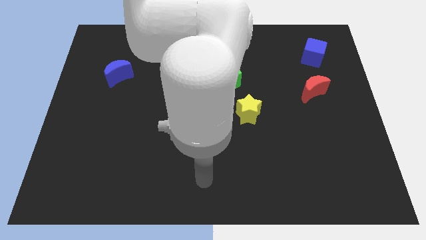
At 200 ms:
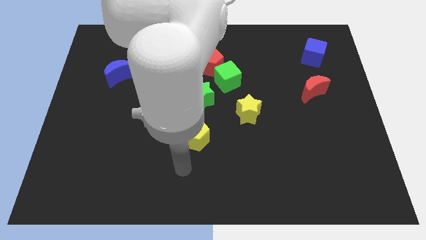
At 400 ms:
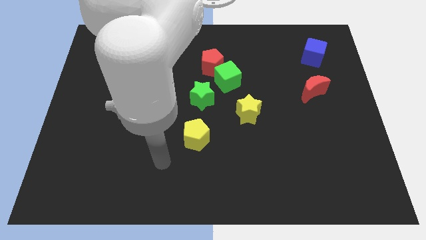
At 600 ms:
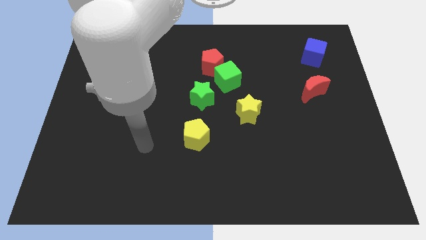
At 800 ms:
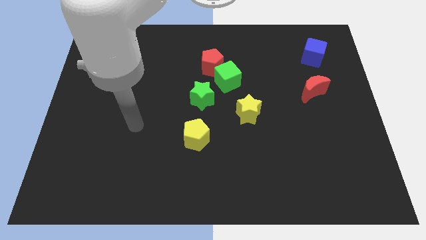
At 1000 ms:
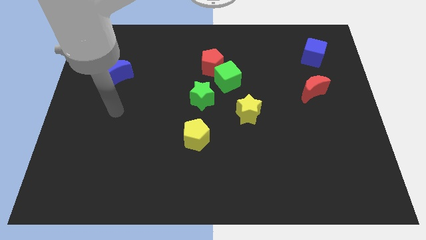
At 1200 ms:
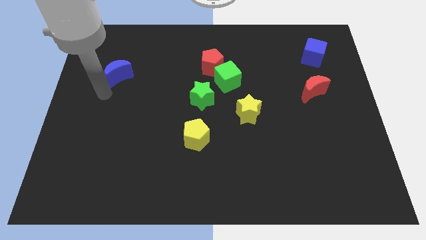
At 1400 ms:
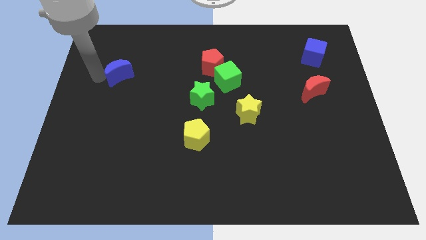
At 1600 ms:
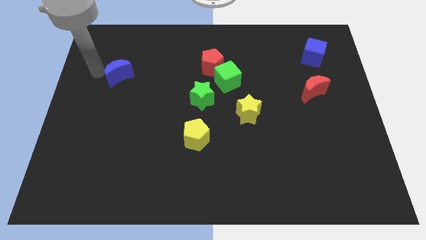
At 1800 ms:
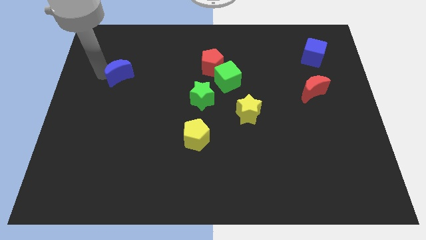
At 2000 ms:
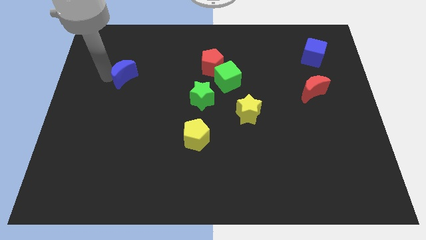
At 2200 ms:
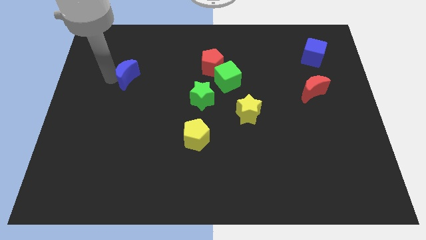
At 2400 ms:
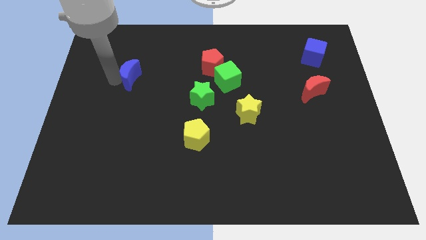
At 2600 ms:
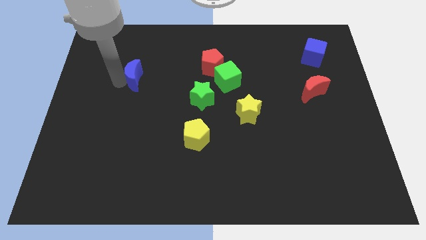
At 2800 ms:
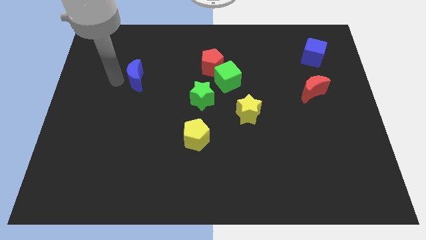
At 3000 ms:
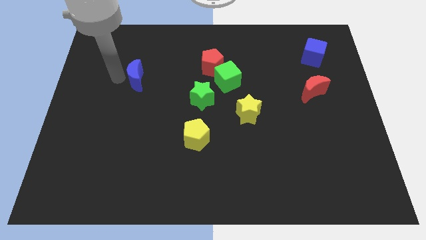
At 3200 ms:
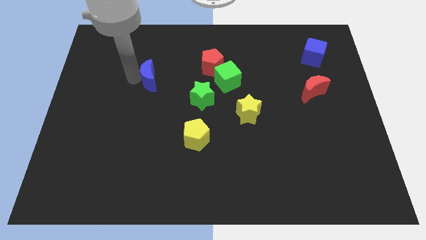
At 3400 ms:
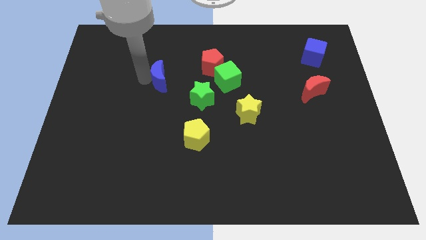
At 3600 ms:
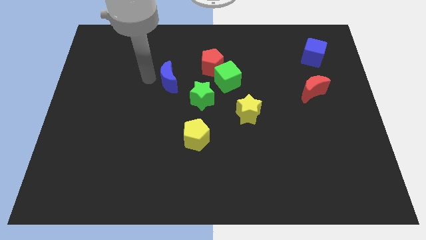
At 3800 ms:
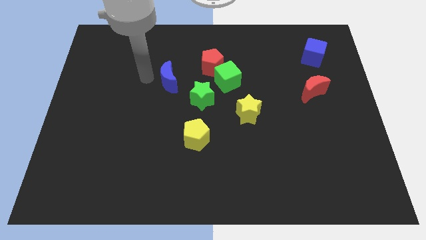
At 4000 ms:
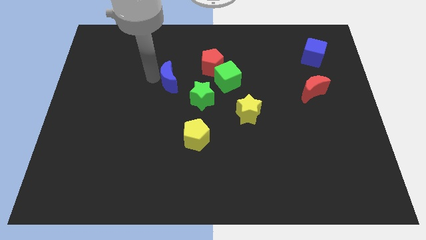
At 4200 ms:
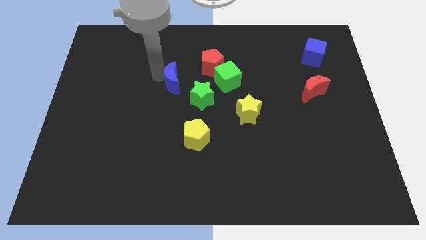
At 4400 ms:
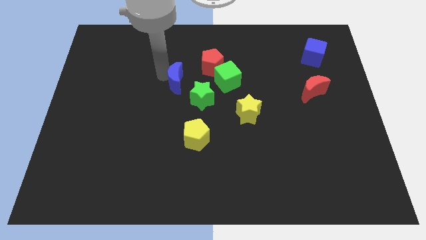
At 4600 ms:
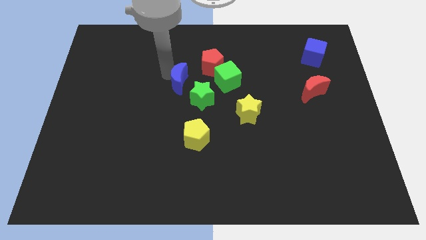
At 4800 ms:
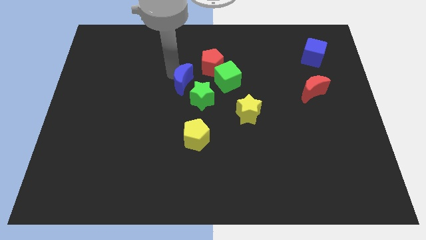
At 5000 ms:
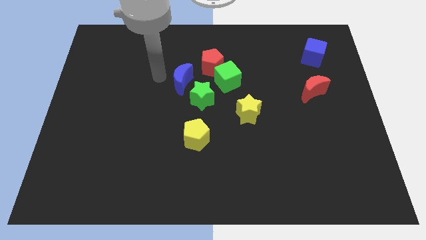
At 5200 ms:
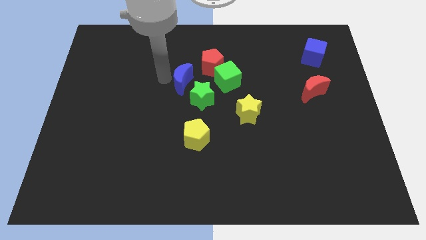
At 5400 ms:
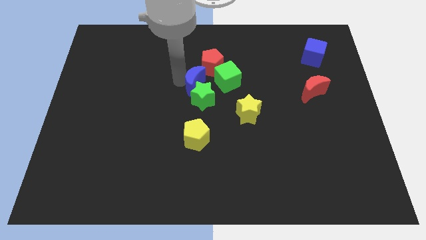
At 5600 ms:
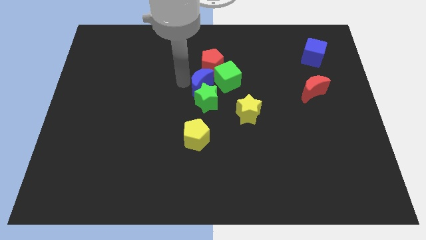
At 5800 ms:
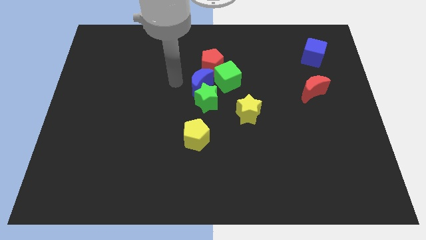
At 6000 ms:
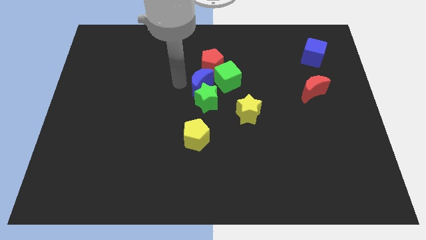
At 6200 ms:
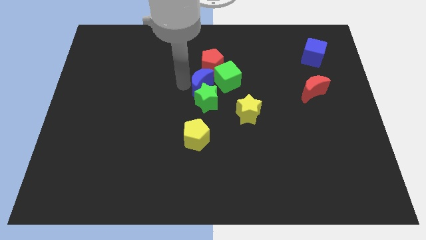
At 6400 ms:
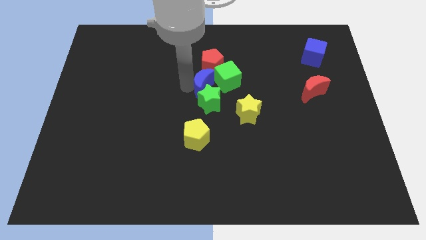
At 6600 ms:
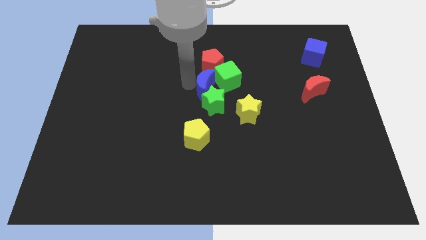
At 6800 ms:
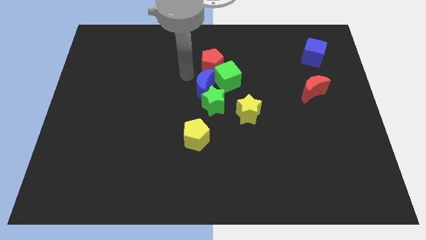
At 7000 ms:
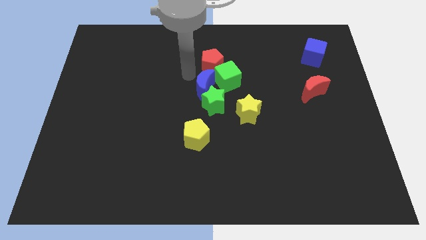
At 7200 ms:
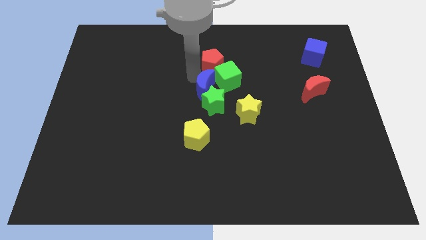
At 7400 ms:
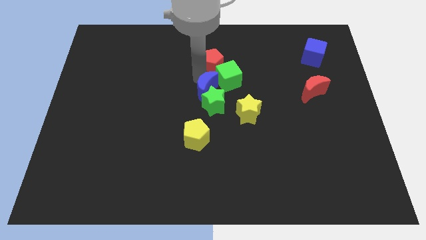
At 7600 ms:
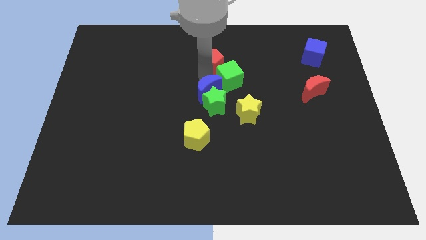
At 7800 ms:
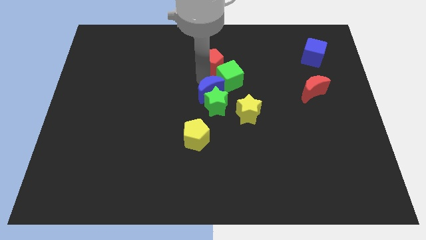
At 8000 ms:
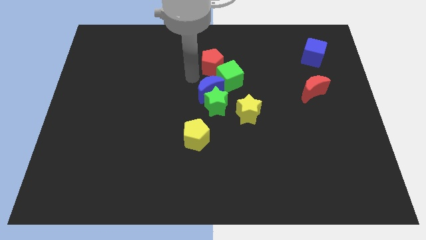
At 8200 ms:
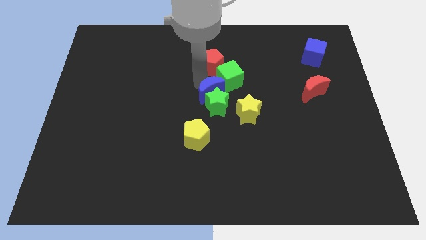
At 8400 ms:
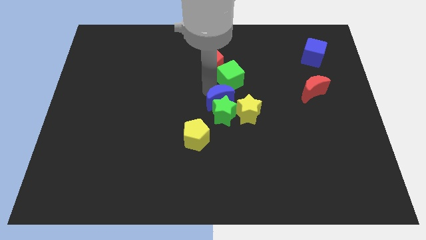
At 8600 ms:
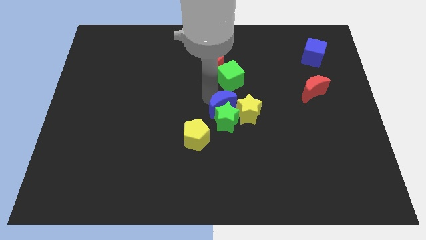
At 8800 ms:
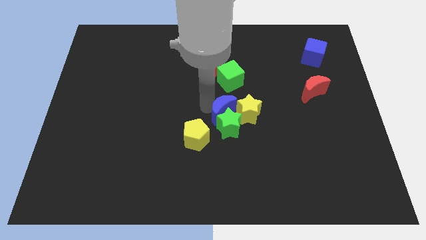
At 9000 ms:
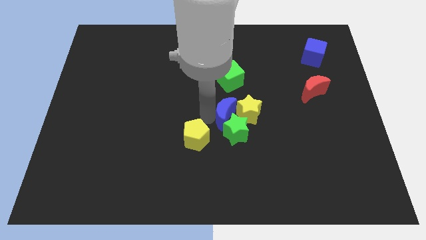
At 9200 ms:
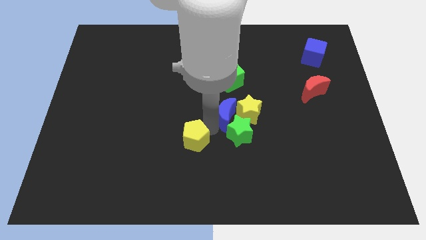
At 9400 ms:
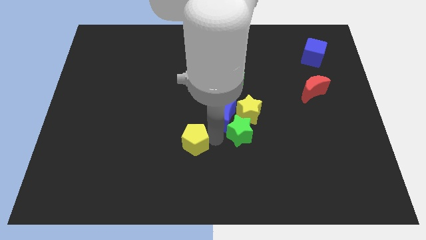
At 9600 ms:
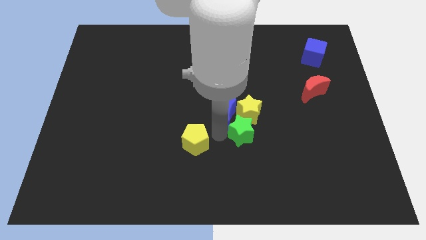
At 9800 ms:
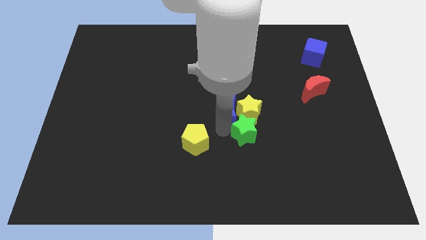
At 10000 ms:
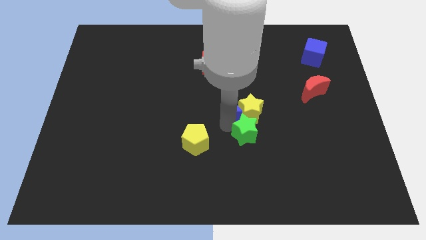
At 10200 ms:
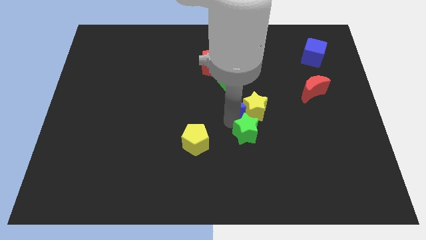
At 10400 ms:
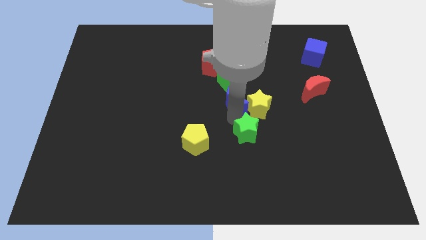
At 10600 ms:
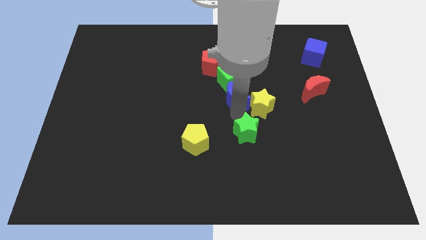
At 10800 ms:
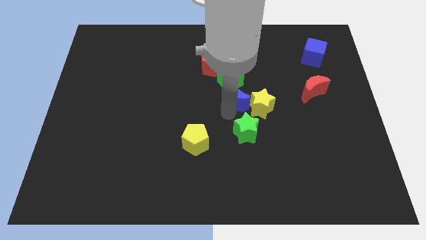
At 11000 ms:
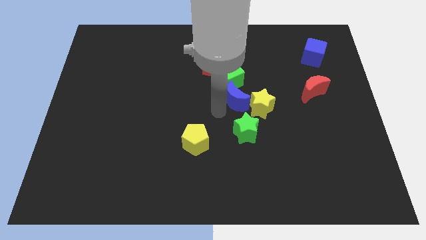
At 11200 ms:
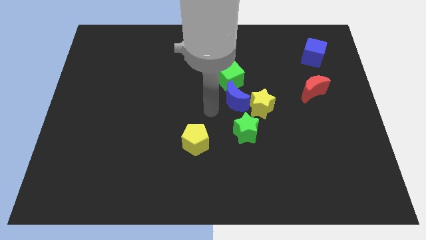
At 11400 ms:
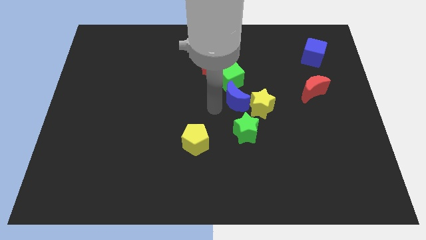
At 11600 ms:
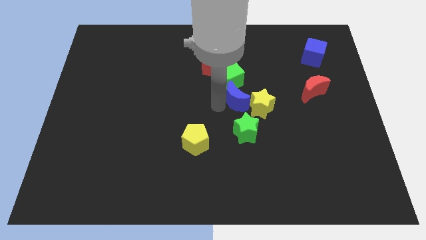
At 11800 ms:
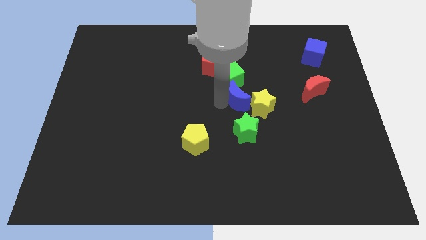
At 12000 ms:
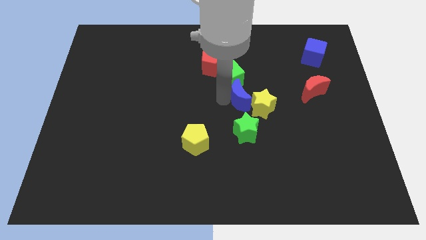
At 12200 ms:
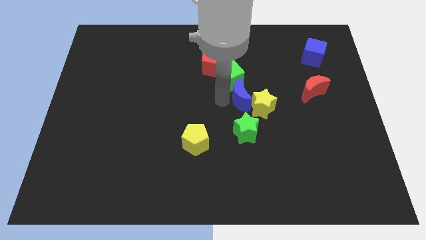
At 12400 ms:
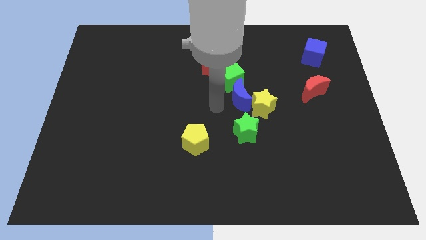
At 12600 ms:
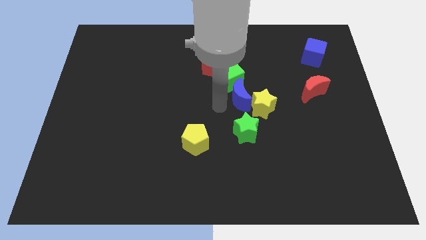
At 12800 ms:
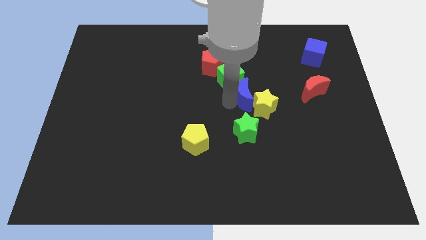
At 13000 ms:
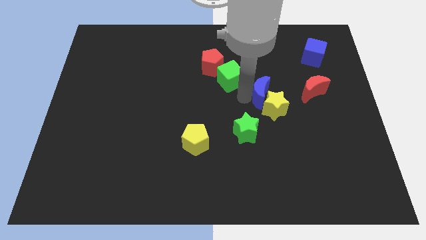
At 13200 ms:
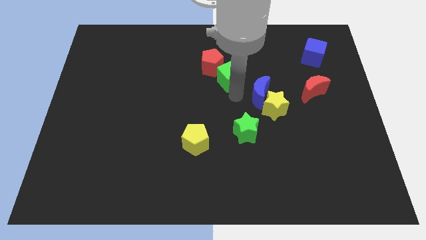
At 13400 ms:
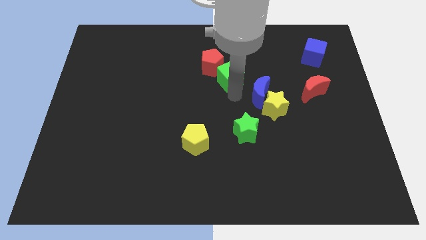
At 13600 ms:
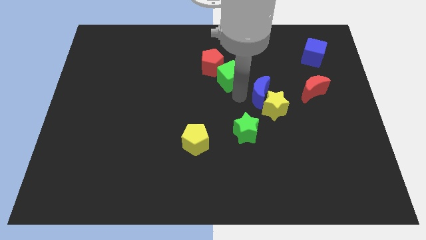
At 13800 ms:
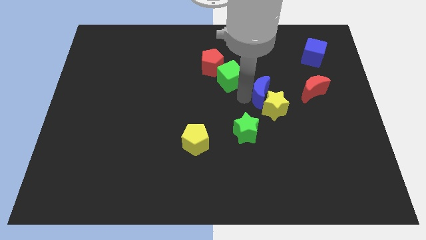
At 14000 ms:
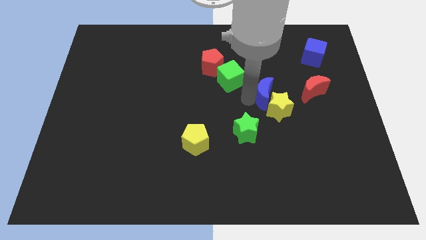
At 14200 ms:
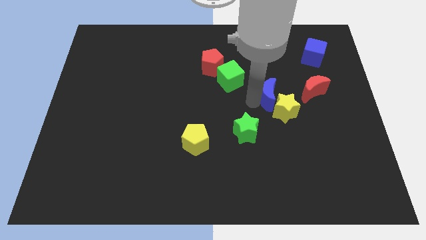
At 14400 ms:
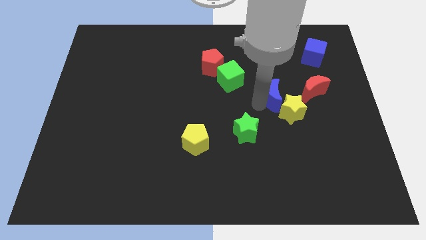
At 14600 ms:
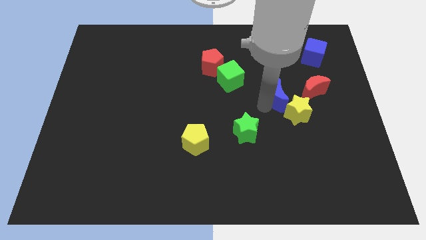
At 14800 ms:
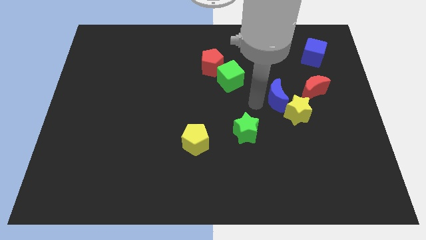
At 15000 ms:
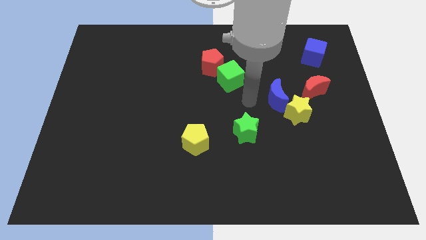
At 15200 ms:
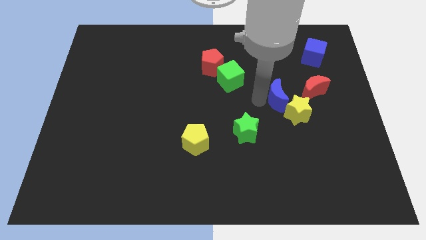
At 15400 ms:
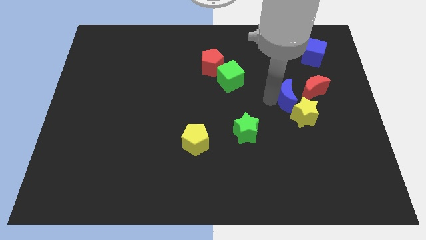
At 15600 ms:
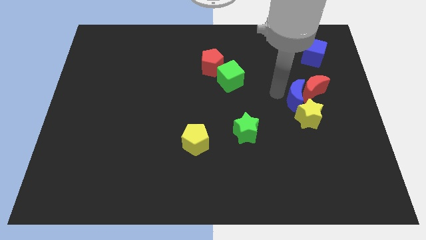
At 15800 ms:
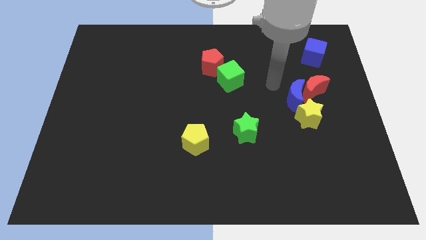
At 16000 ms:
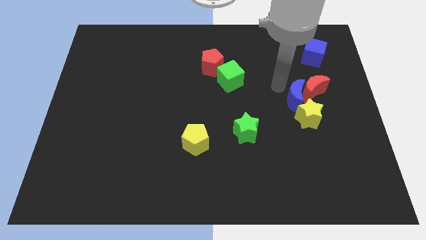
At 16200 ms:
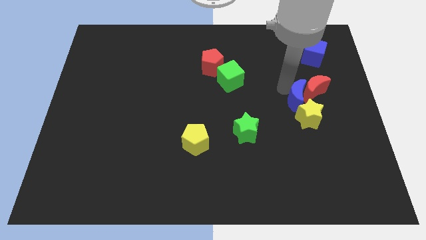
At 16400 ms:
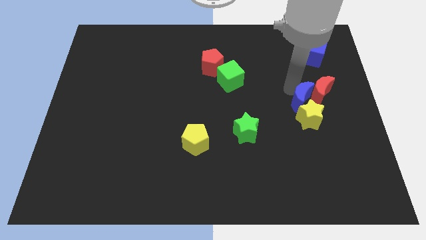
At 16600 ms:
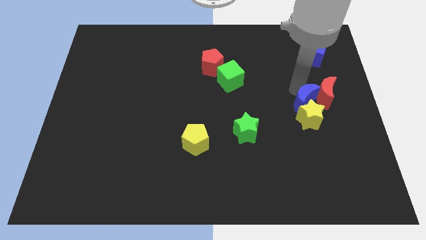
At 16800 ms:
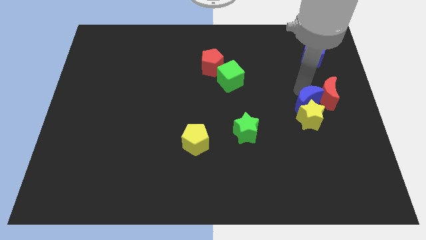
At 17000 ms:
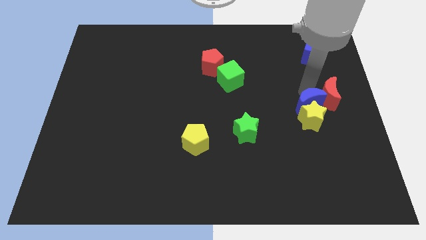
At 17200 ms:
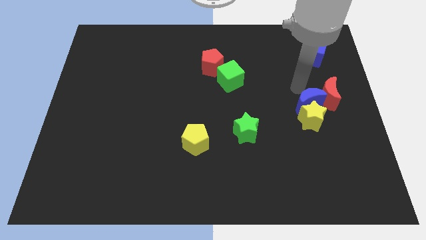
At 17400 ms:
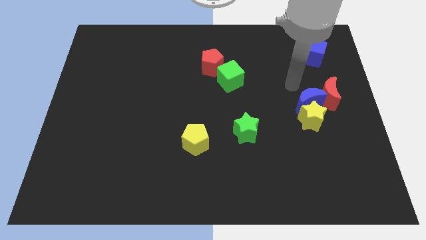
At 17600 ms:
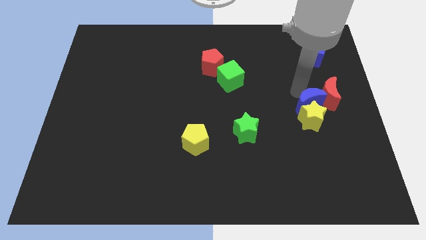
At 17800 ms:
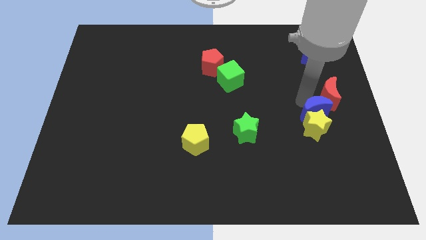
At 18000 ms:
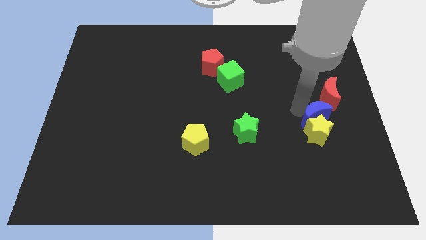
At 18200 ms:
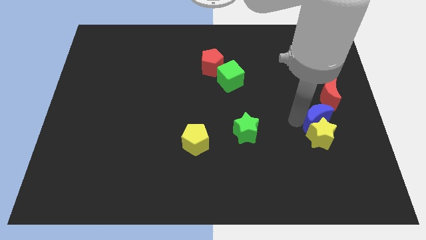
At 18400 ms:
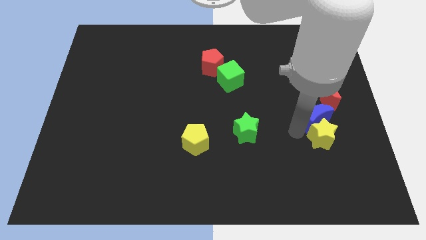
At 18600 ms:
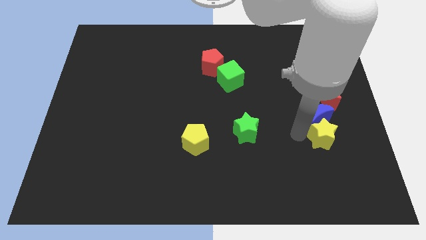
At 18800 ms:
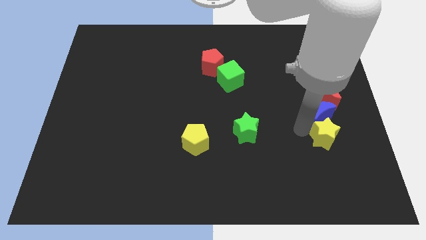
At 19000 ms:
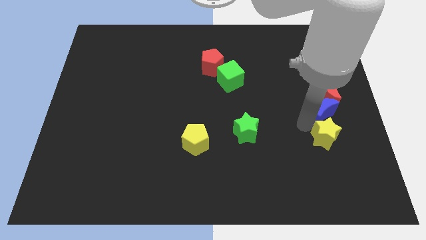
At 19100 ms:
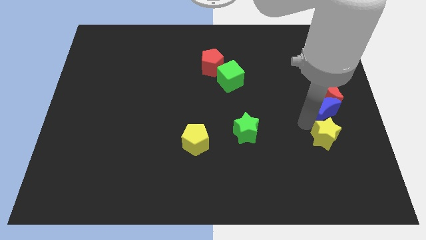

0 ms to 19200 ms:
put the blue moon to the right side of the board
